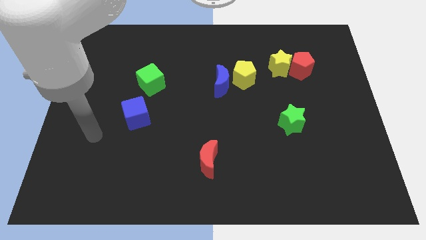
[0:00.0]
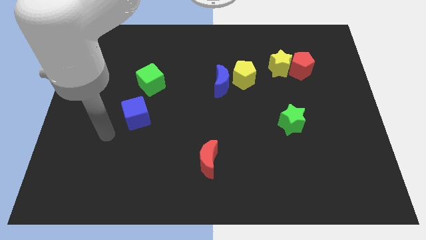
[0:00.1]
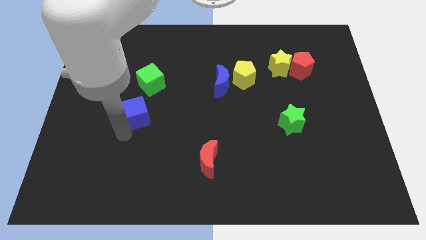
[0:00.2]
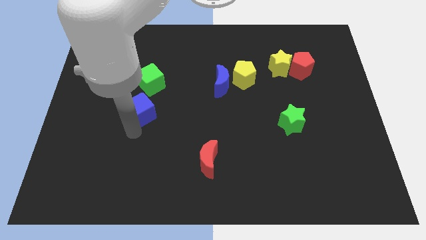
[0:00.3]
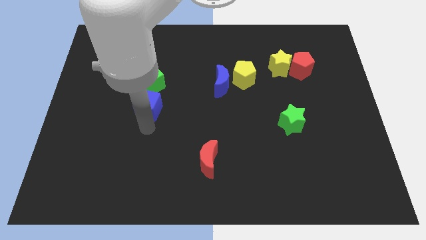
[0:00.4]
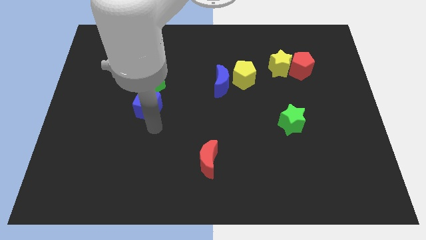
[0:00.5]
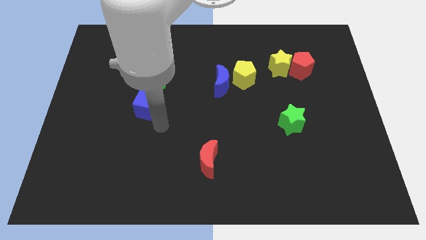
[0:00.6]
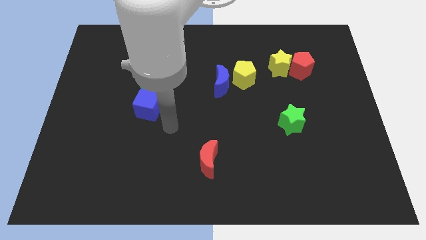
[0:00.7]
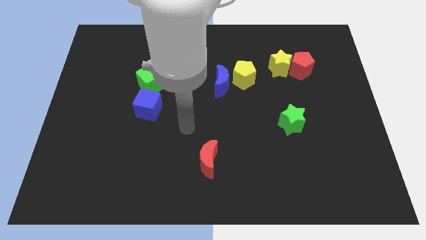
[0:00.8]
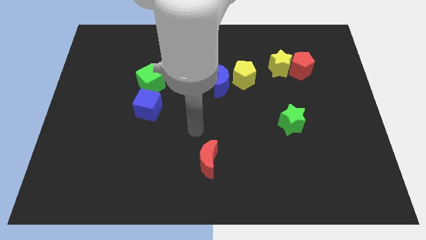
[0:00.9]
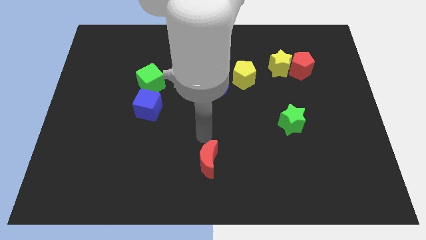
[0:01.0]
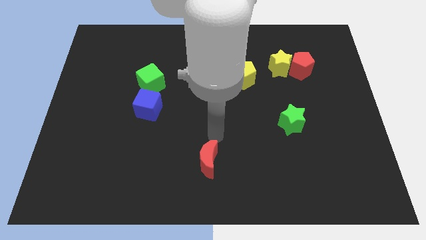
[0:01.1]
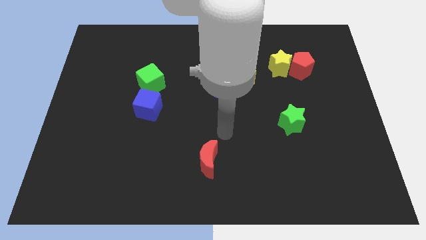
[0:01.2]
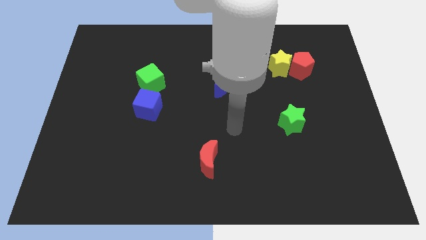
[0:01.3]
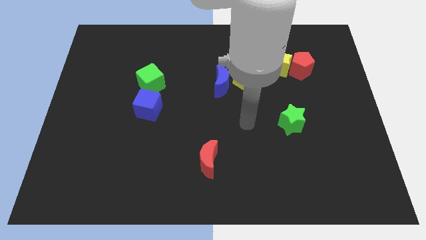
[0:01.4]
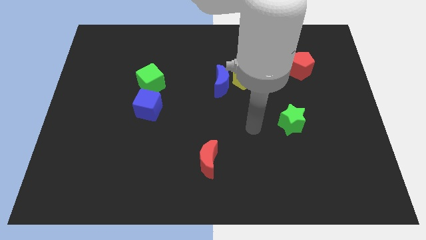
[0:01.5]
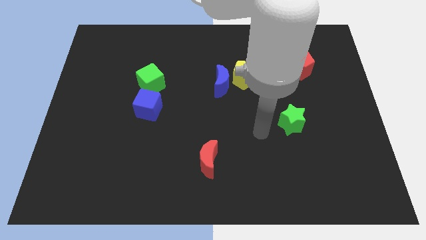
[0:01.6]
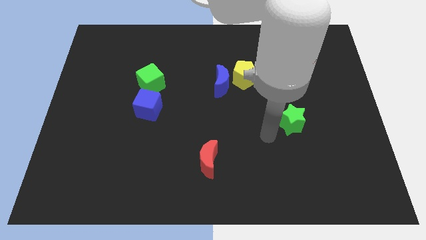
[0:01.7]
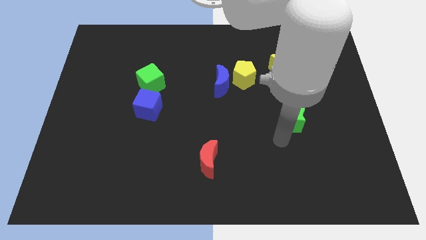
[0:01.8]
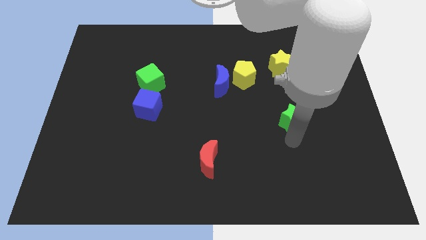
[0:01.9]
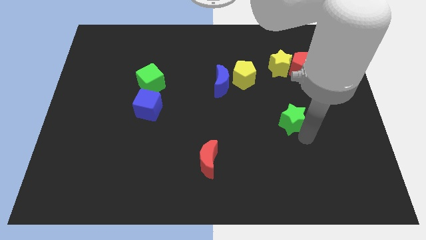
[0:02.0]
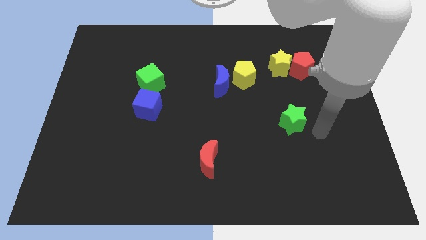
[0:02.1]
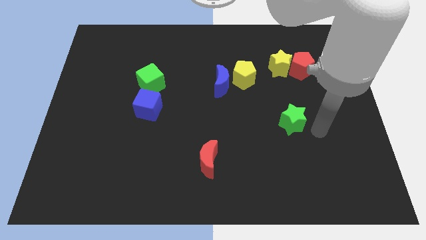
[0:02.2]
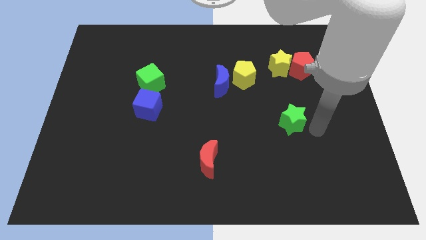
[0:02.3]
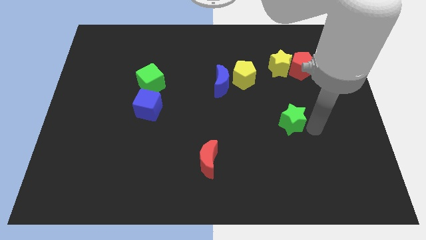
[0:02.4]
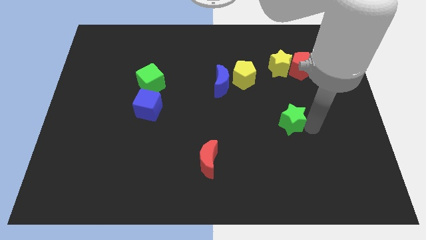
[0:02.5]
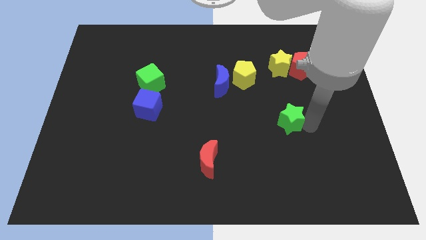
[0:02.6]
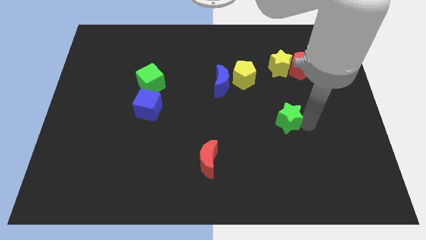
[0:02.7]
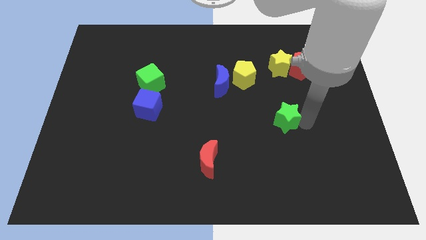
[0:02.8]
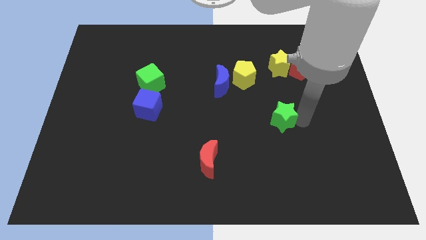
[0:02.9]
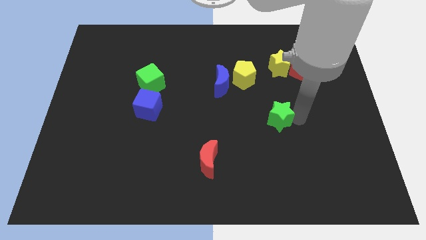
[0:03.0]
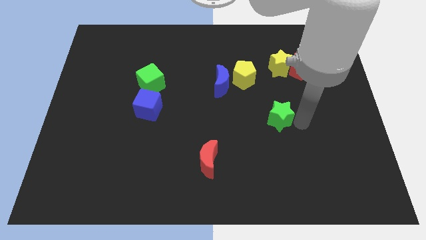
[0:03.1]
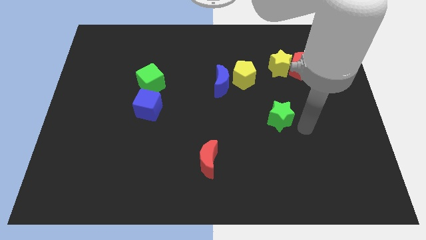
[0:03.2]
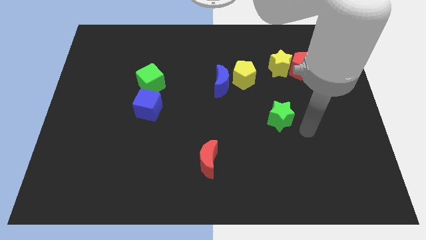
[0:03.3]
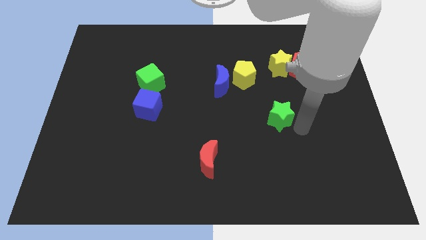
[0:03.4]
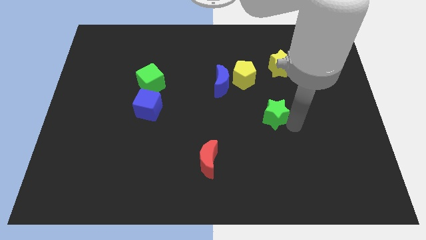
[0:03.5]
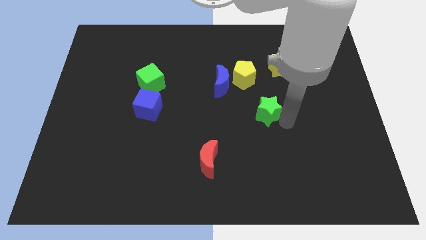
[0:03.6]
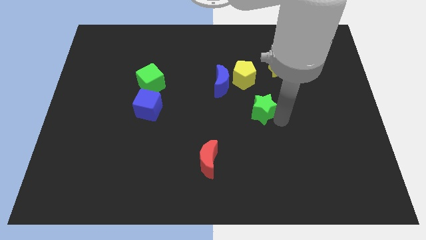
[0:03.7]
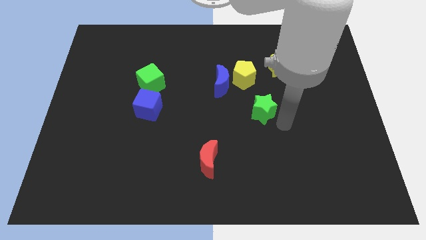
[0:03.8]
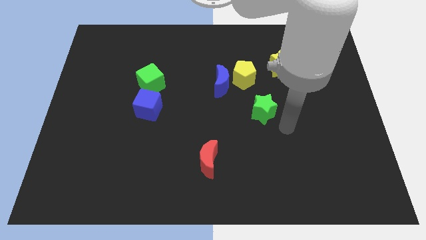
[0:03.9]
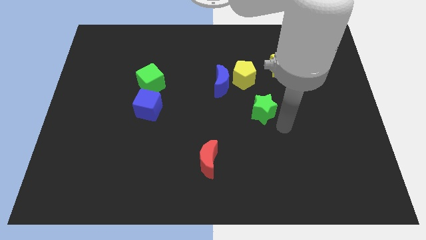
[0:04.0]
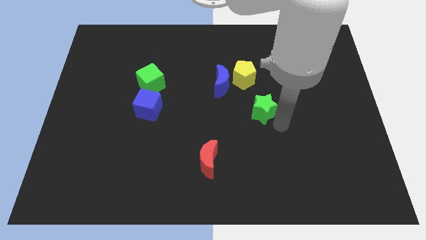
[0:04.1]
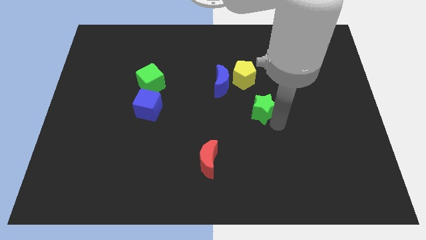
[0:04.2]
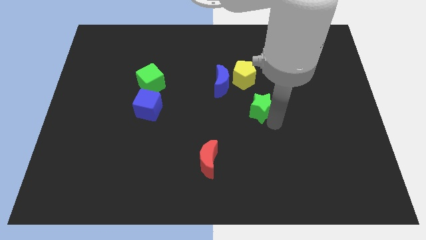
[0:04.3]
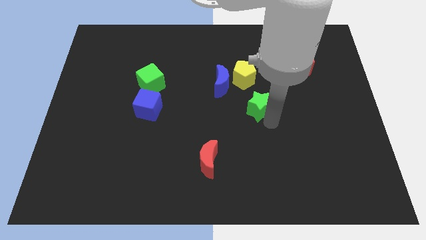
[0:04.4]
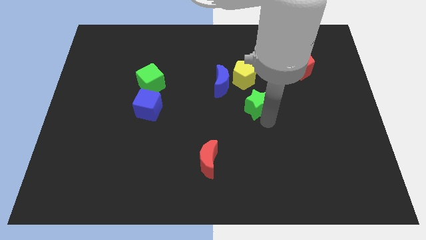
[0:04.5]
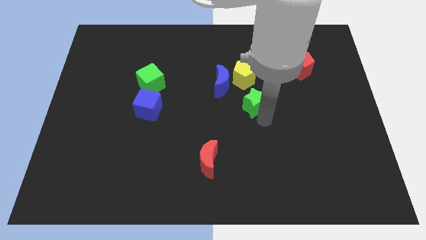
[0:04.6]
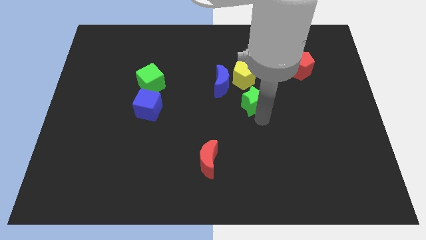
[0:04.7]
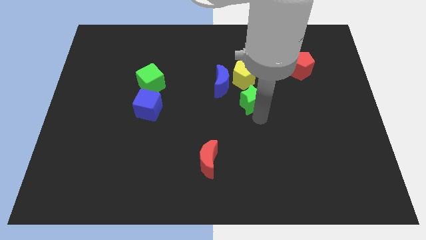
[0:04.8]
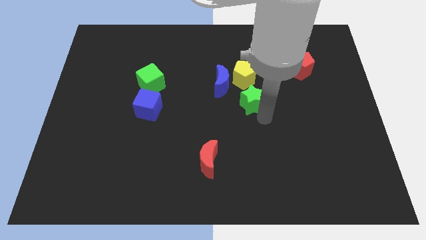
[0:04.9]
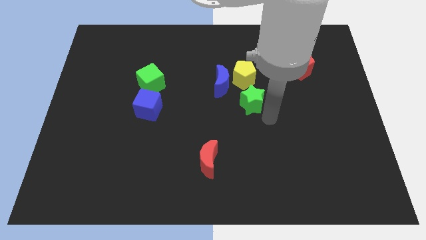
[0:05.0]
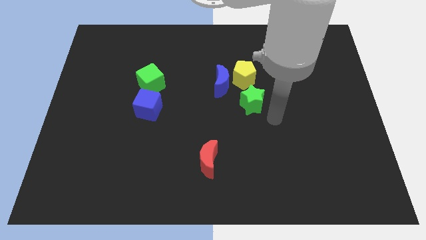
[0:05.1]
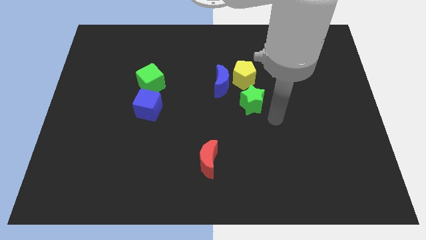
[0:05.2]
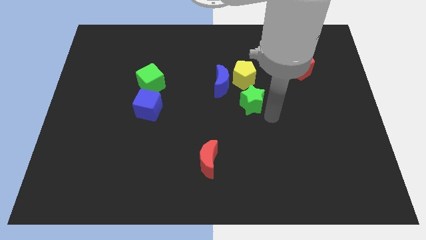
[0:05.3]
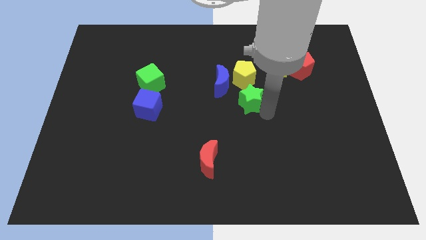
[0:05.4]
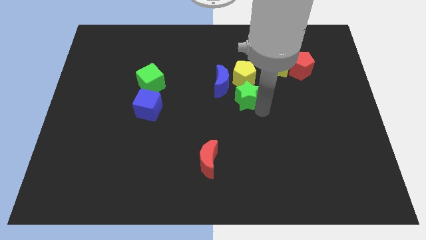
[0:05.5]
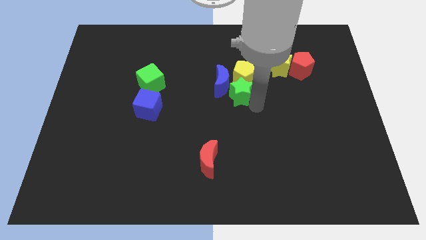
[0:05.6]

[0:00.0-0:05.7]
move the green star next to the blue moon

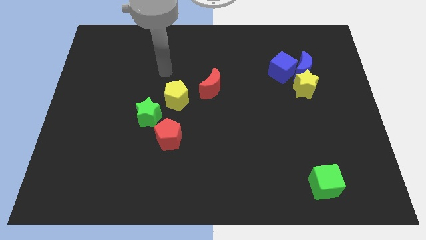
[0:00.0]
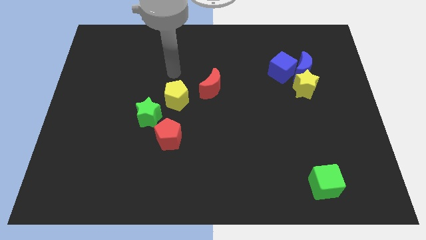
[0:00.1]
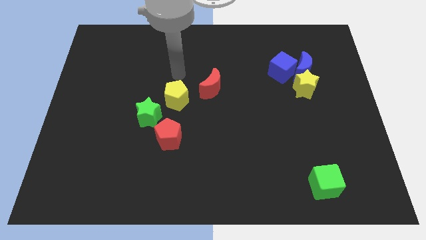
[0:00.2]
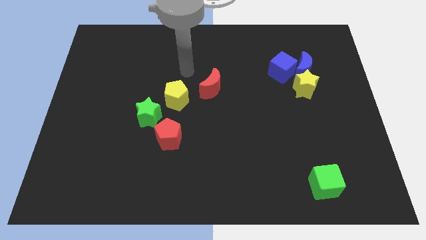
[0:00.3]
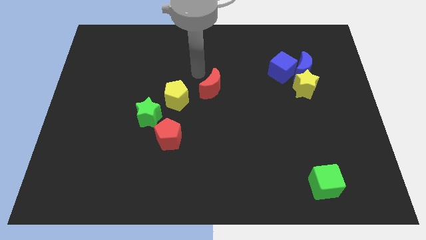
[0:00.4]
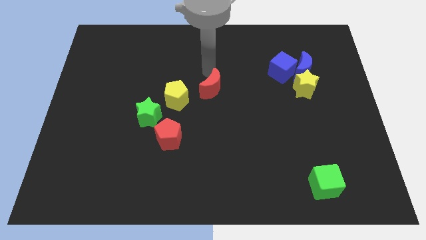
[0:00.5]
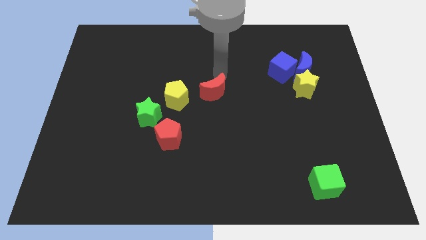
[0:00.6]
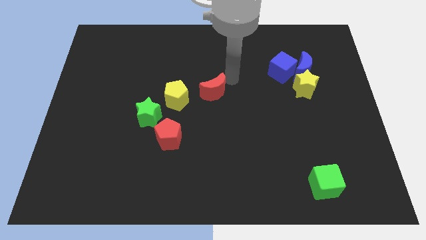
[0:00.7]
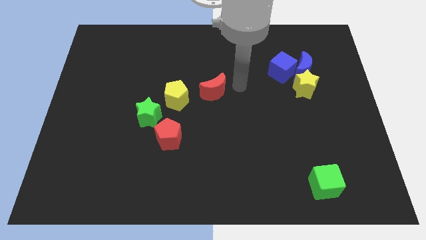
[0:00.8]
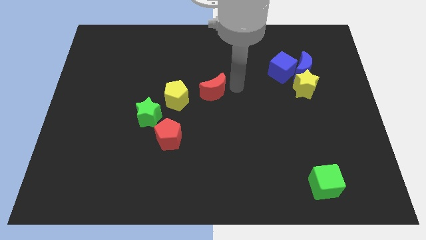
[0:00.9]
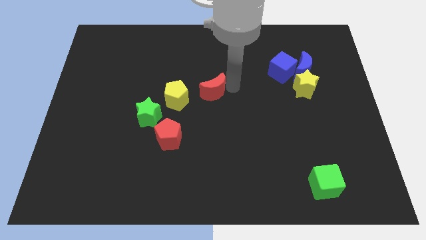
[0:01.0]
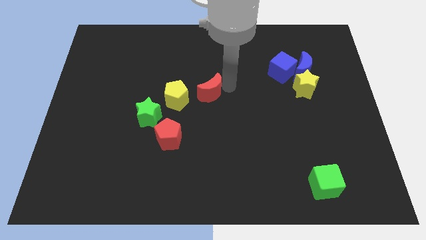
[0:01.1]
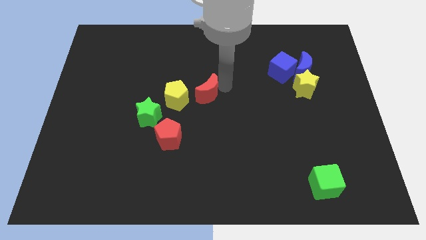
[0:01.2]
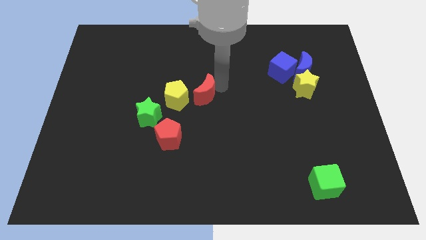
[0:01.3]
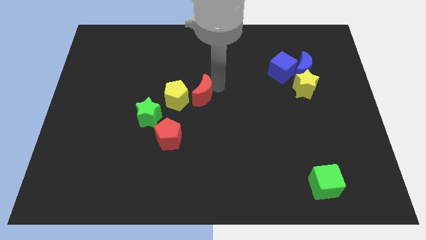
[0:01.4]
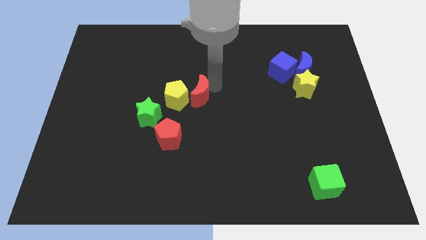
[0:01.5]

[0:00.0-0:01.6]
slide the red moon next to the yellow pentagon

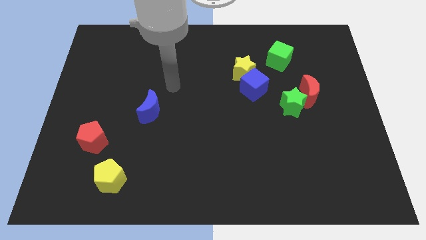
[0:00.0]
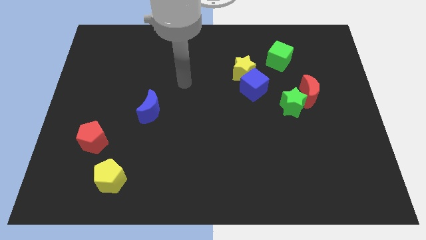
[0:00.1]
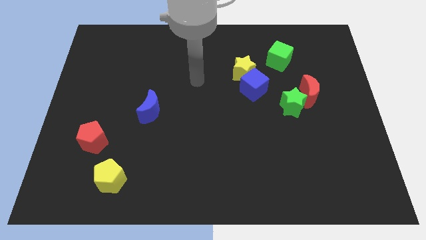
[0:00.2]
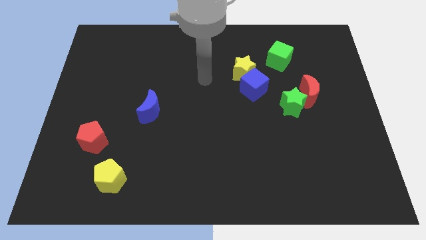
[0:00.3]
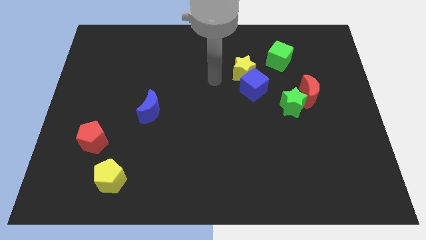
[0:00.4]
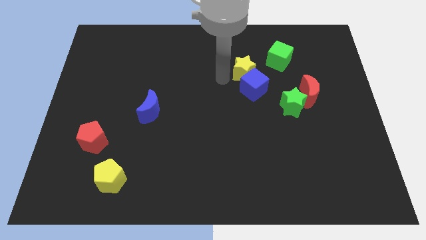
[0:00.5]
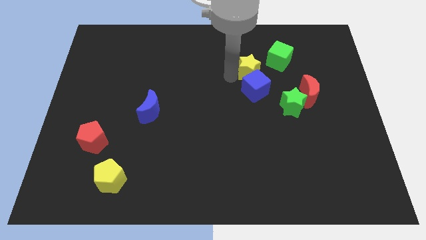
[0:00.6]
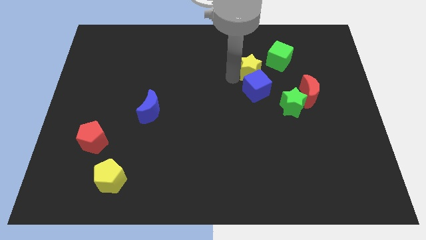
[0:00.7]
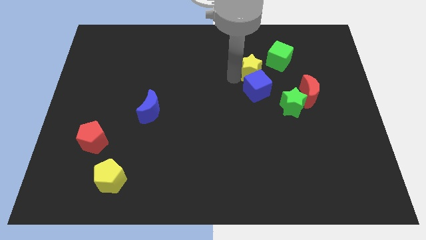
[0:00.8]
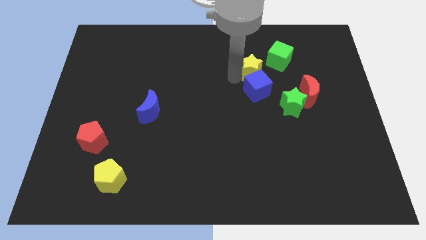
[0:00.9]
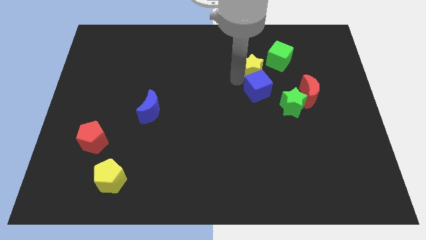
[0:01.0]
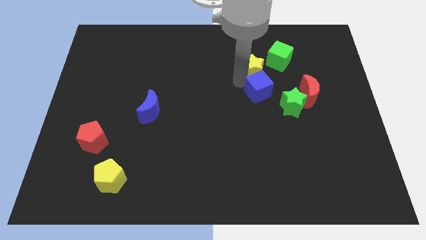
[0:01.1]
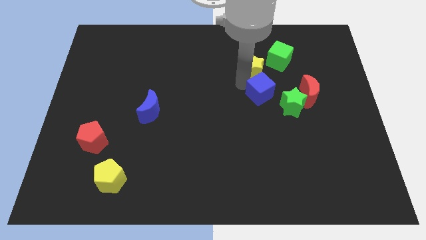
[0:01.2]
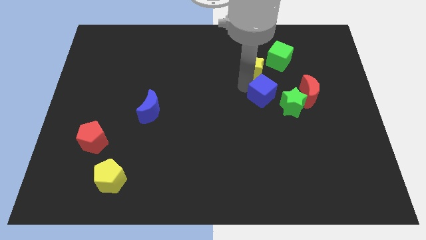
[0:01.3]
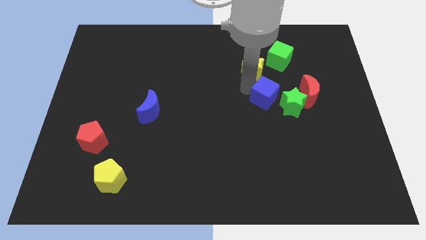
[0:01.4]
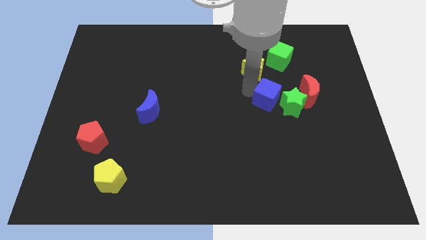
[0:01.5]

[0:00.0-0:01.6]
put the blue cube to the green star
